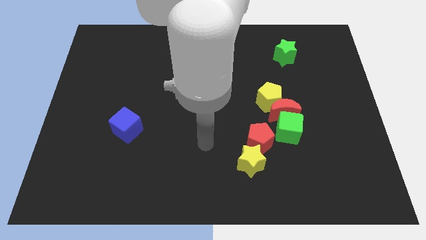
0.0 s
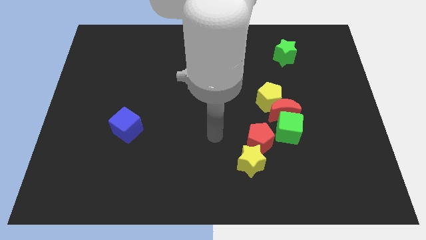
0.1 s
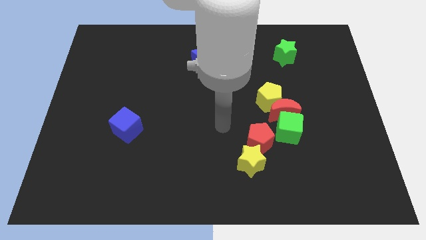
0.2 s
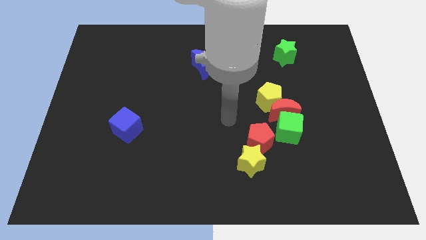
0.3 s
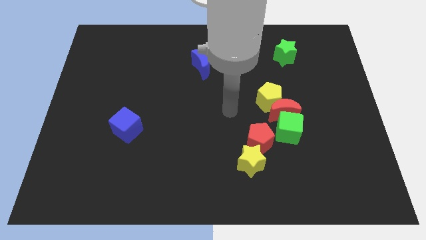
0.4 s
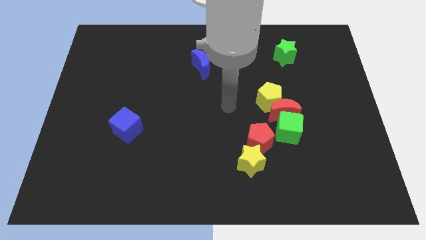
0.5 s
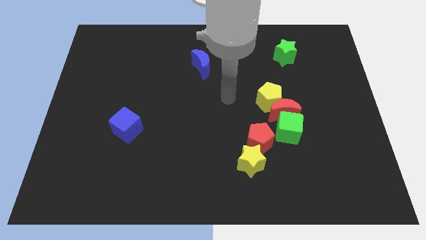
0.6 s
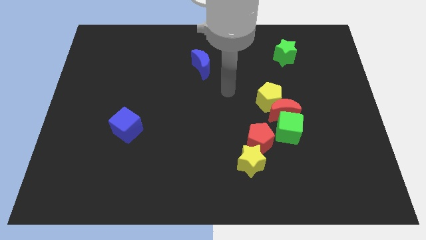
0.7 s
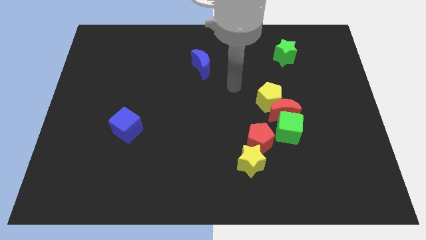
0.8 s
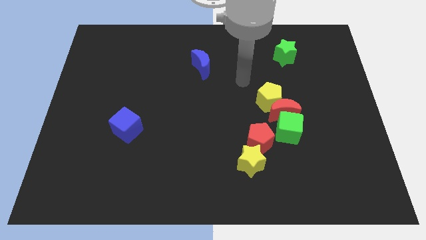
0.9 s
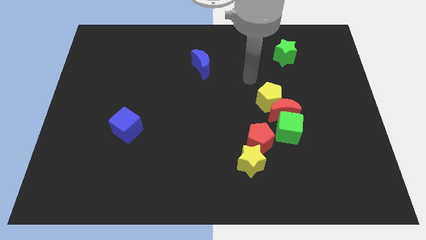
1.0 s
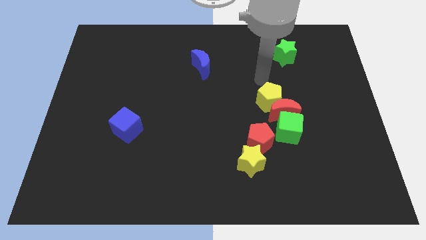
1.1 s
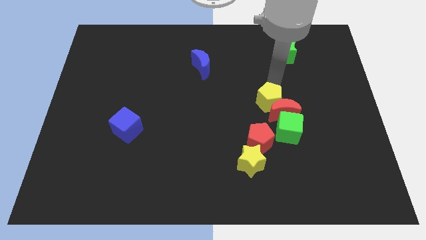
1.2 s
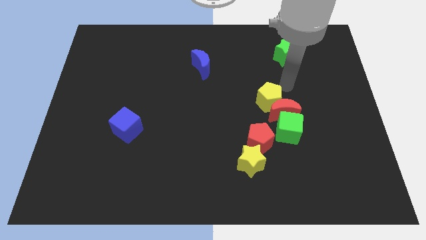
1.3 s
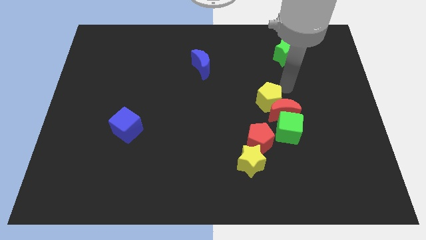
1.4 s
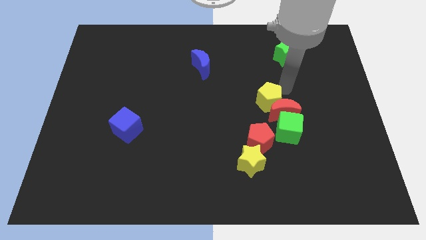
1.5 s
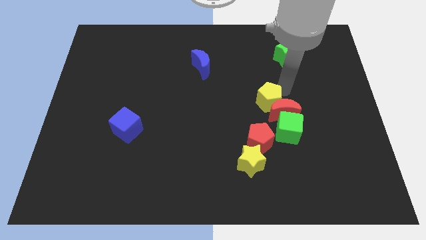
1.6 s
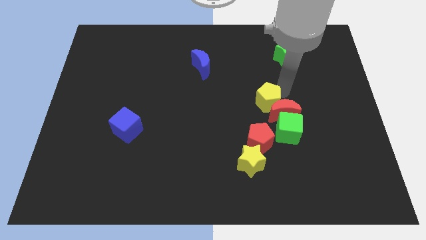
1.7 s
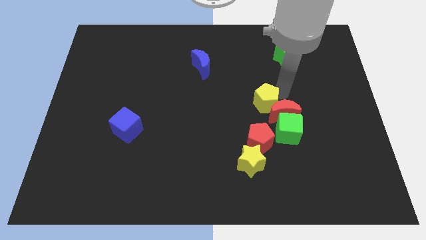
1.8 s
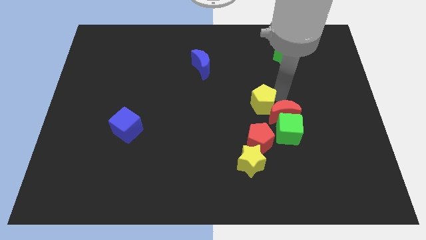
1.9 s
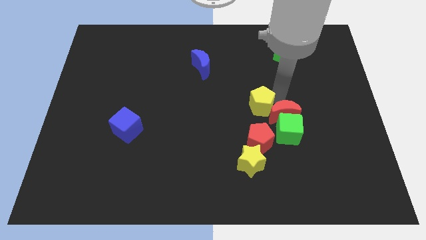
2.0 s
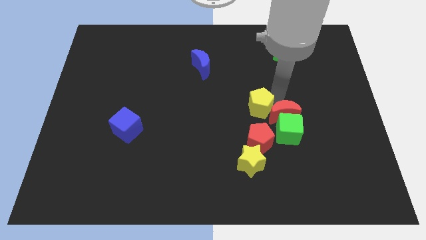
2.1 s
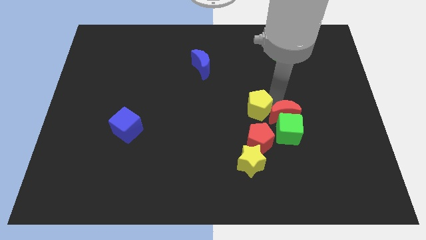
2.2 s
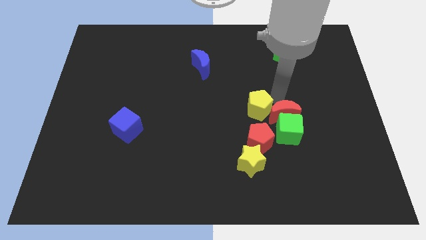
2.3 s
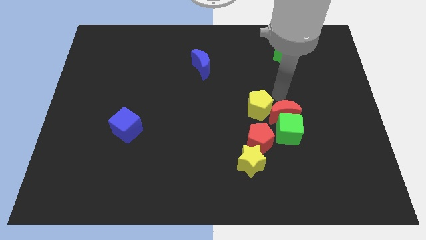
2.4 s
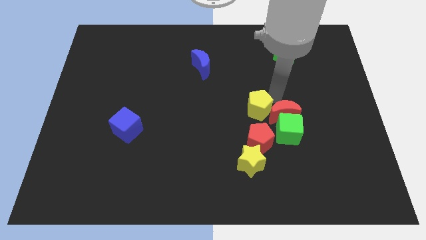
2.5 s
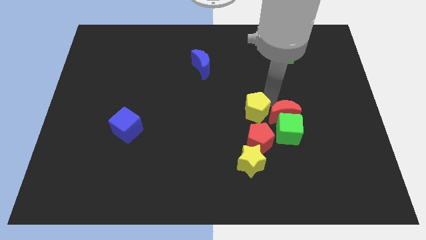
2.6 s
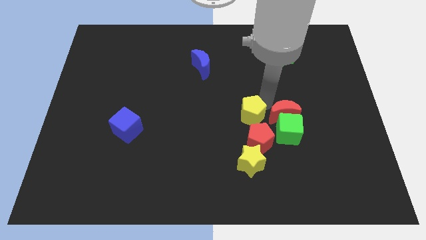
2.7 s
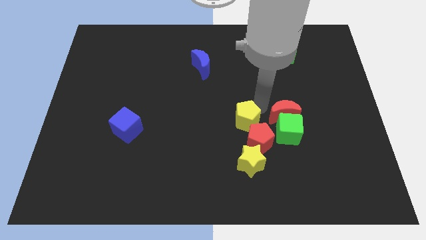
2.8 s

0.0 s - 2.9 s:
slightly push the yellow pentagon downwards and to the left

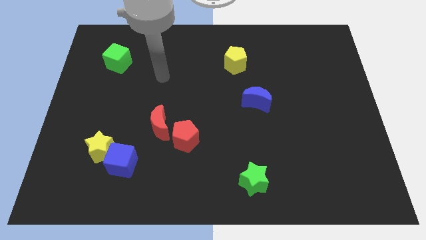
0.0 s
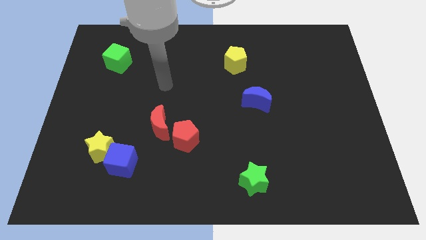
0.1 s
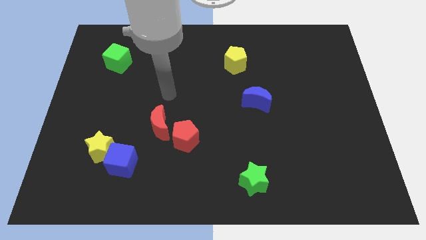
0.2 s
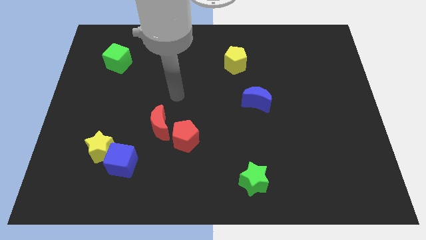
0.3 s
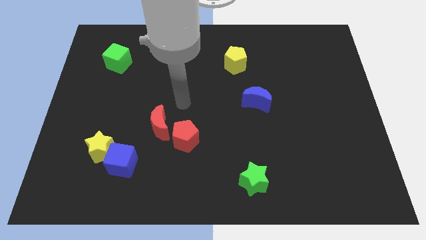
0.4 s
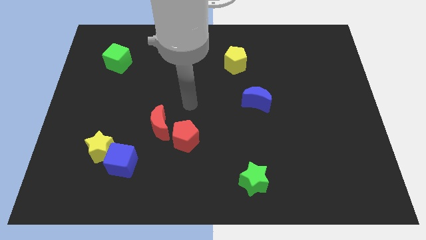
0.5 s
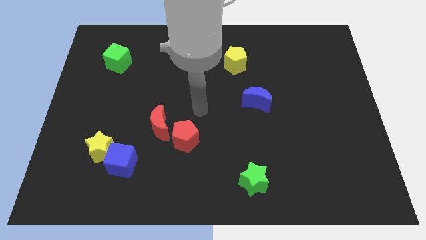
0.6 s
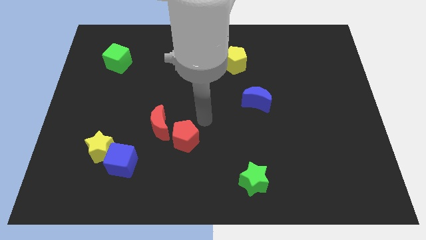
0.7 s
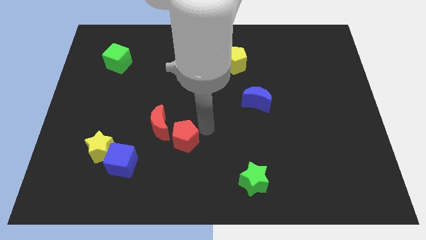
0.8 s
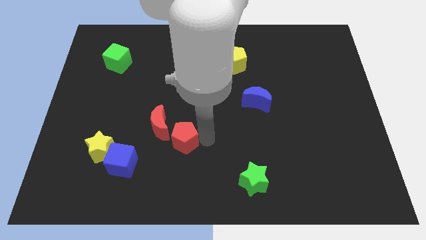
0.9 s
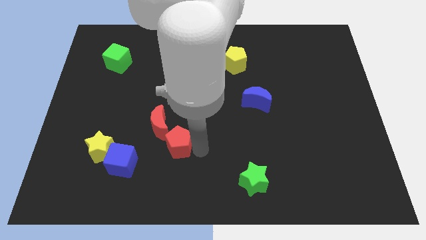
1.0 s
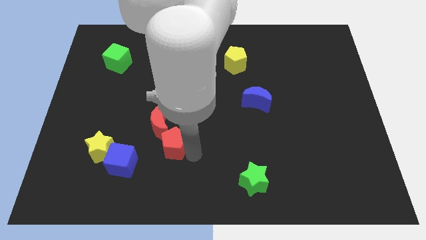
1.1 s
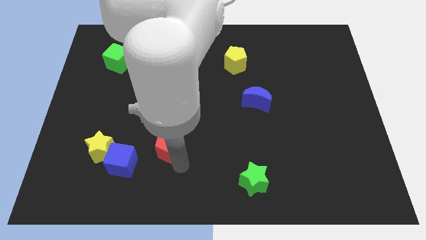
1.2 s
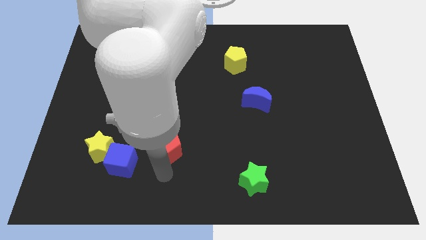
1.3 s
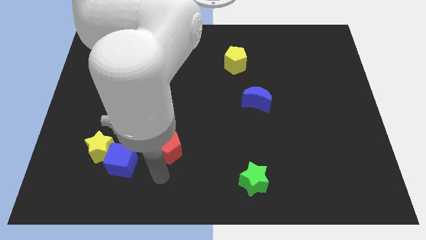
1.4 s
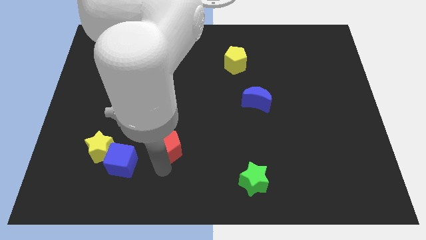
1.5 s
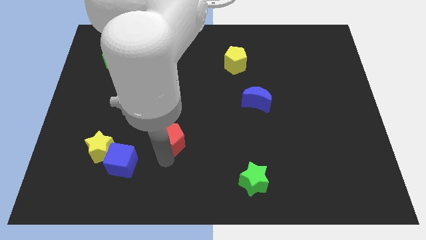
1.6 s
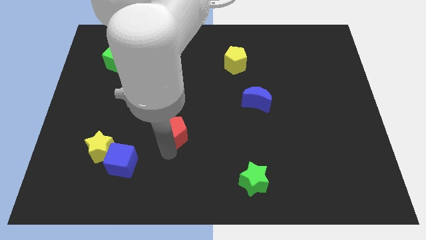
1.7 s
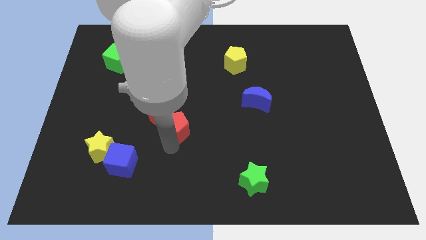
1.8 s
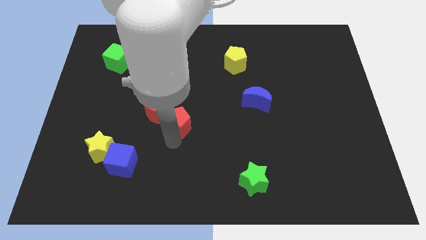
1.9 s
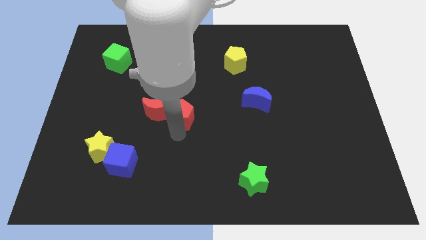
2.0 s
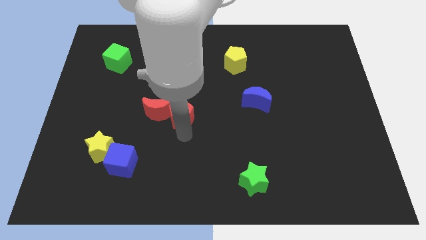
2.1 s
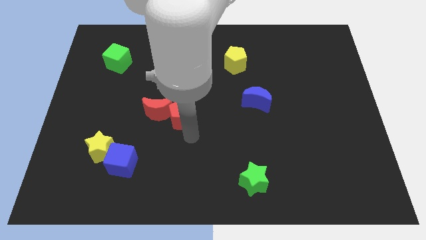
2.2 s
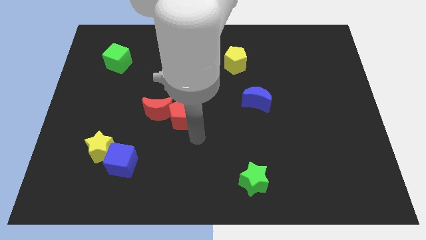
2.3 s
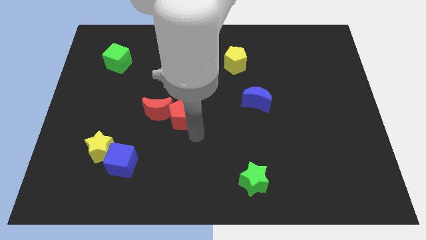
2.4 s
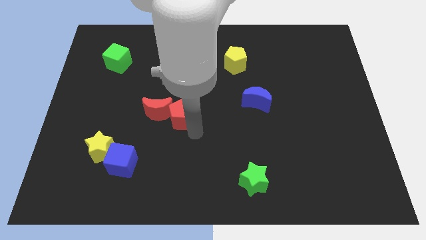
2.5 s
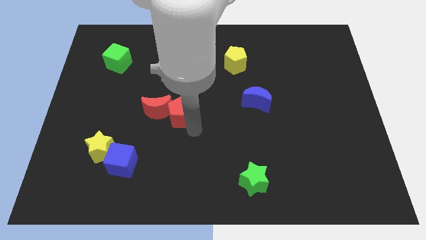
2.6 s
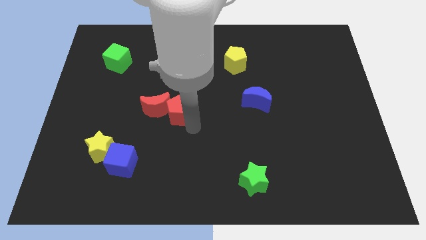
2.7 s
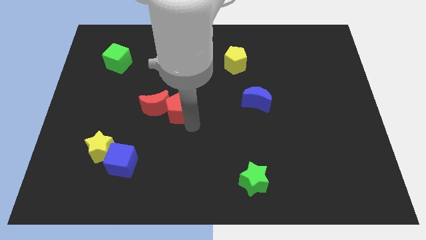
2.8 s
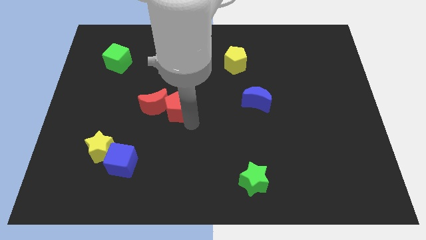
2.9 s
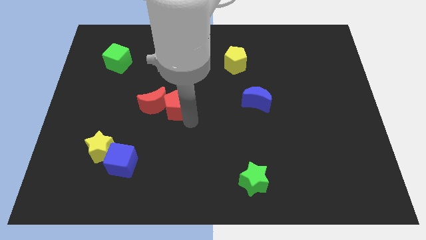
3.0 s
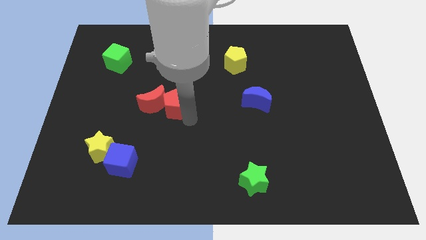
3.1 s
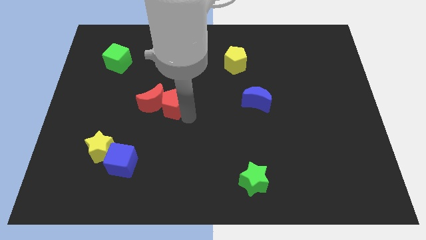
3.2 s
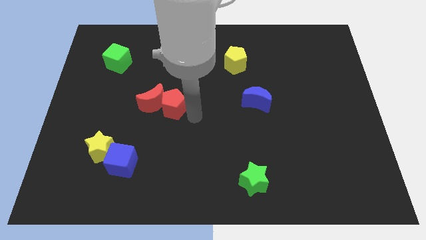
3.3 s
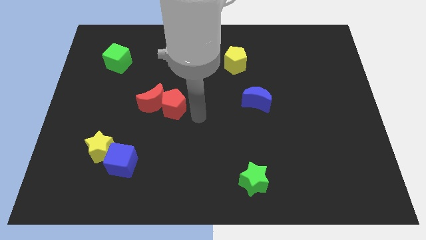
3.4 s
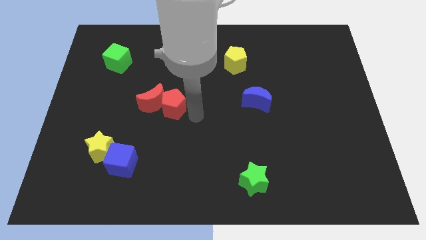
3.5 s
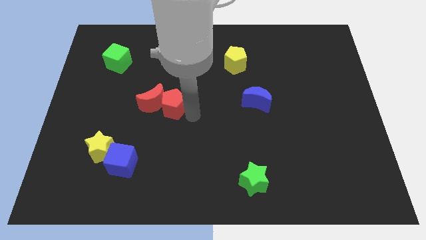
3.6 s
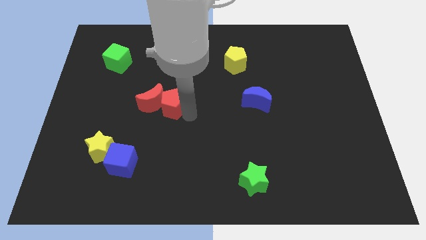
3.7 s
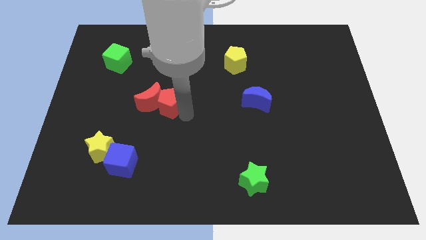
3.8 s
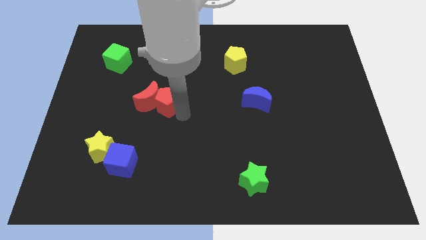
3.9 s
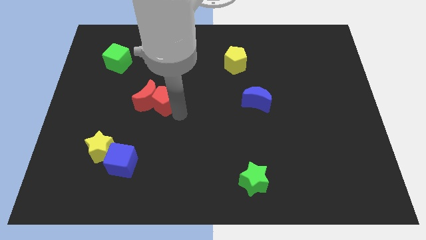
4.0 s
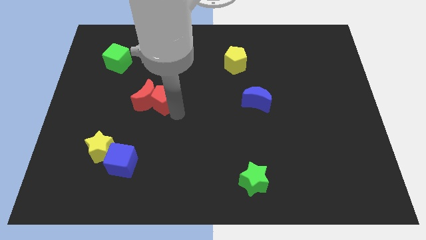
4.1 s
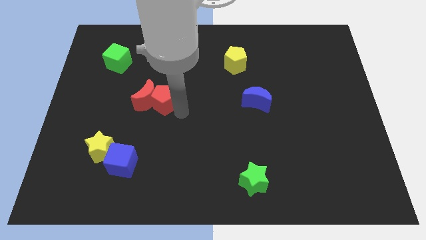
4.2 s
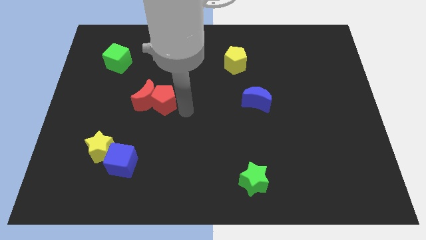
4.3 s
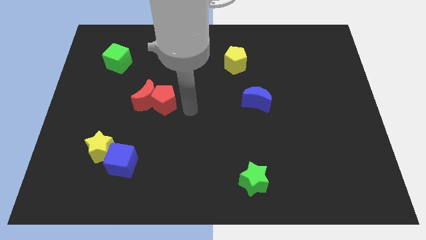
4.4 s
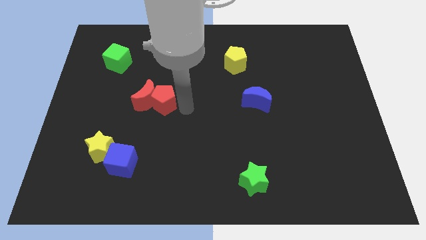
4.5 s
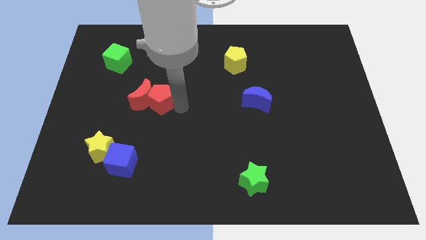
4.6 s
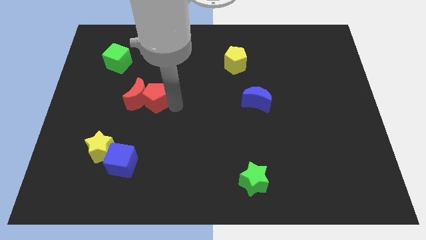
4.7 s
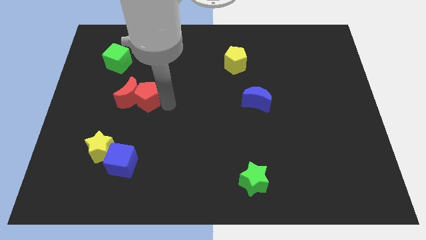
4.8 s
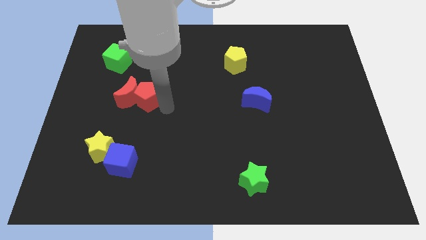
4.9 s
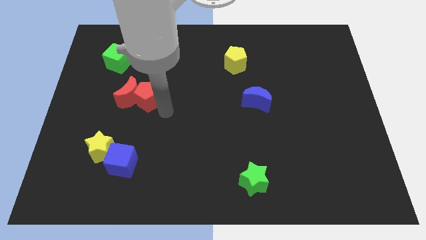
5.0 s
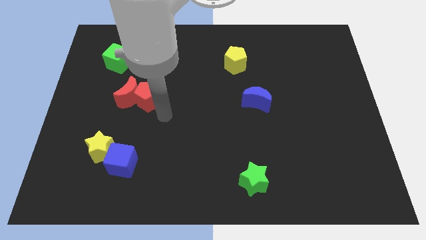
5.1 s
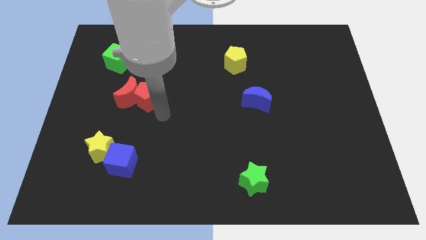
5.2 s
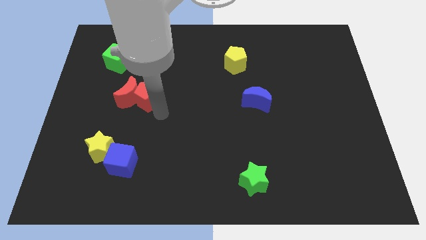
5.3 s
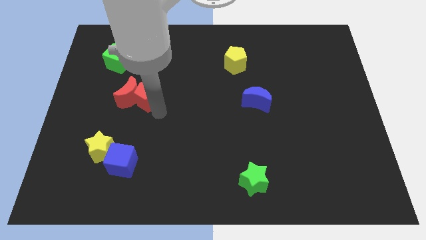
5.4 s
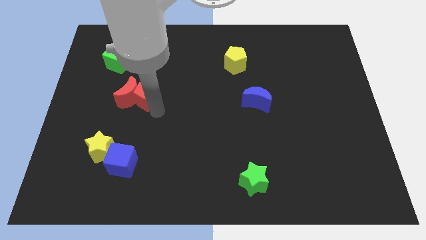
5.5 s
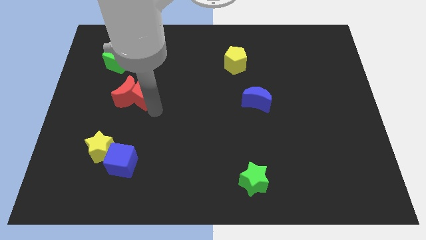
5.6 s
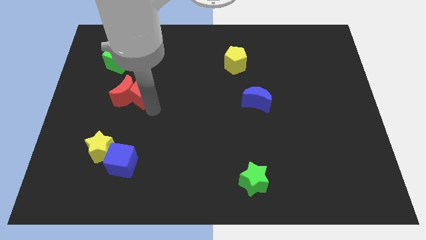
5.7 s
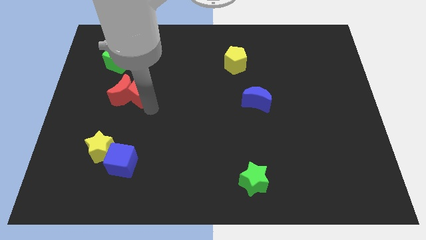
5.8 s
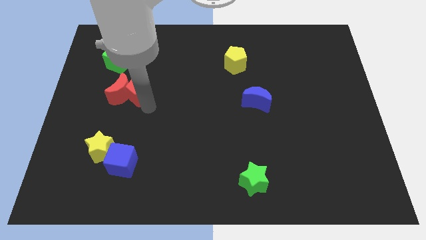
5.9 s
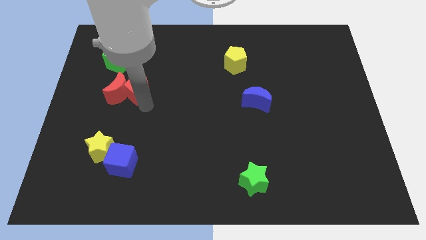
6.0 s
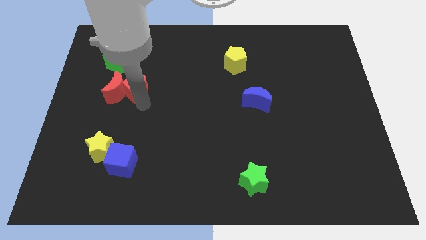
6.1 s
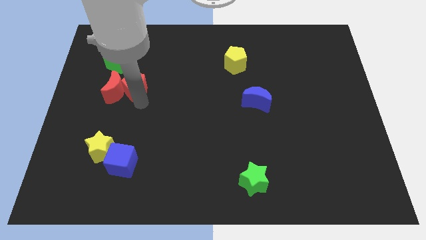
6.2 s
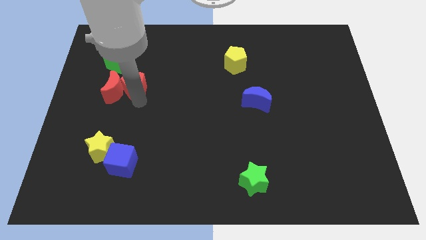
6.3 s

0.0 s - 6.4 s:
move the red pentagon diagonally up and to the left
